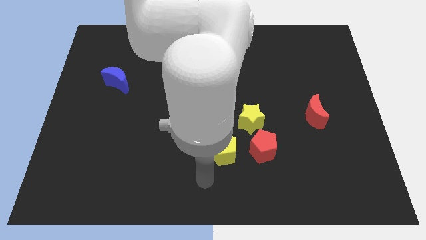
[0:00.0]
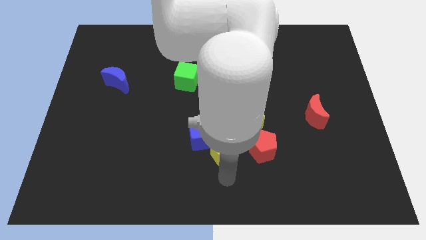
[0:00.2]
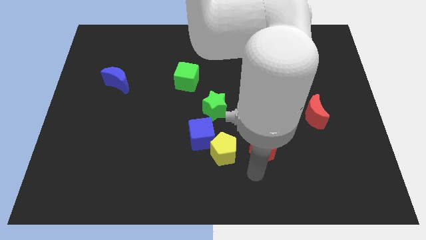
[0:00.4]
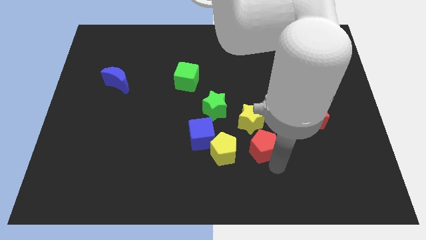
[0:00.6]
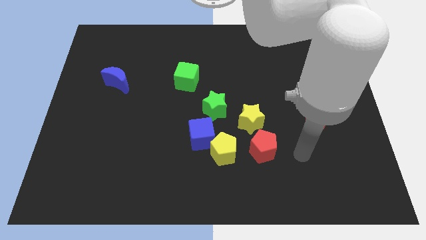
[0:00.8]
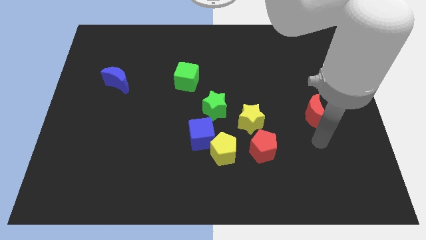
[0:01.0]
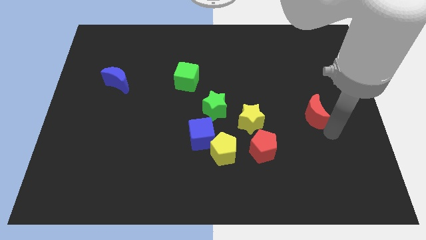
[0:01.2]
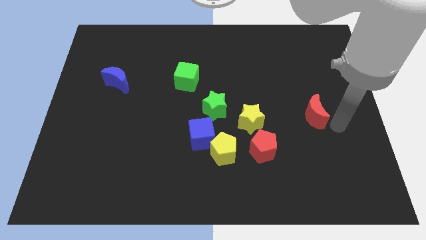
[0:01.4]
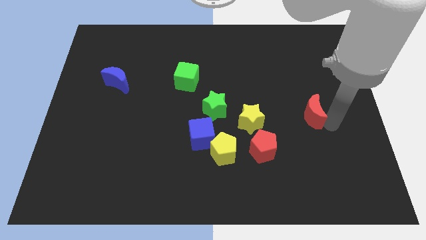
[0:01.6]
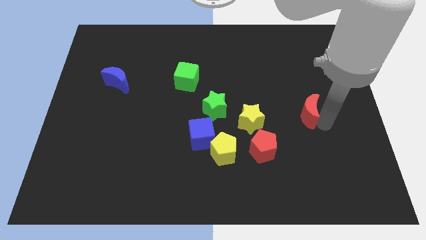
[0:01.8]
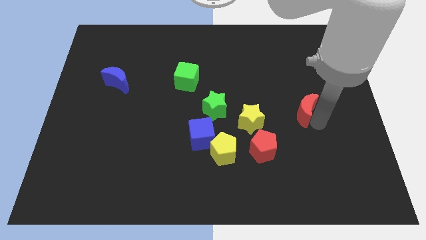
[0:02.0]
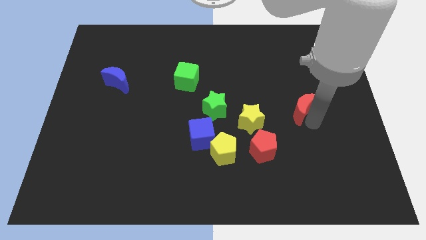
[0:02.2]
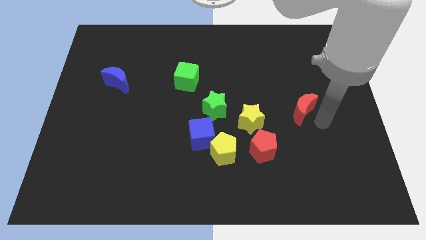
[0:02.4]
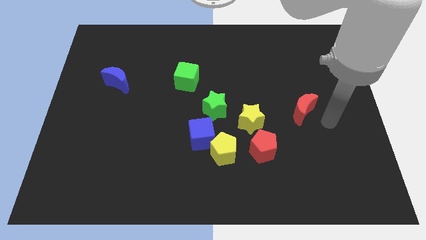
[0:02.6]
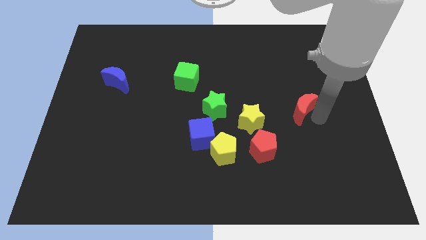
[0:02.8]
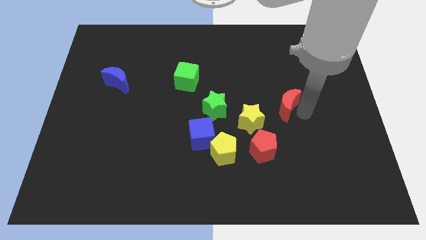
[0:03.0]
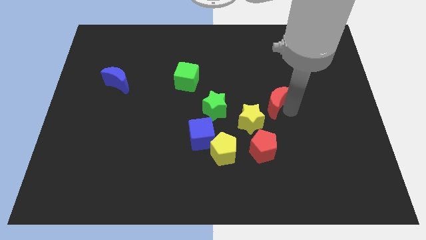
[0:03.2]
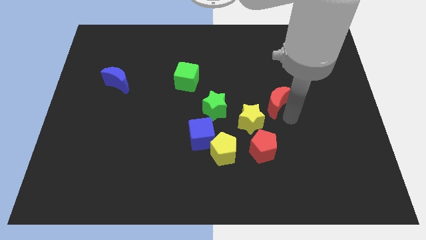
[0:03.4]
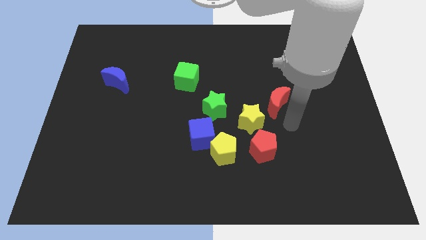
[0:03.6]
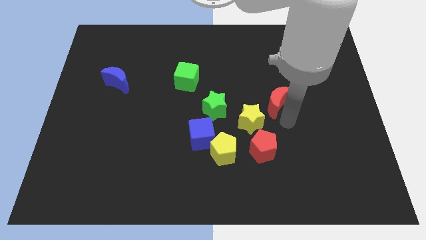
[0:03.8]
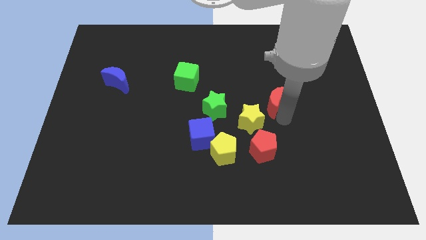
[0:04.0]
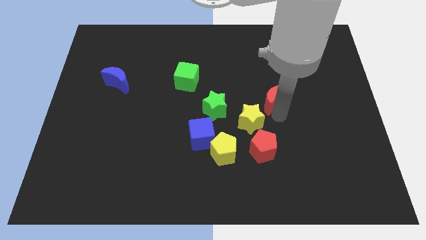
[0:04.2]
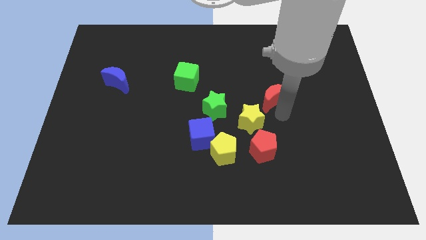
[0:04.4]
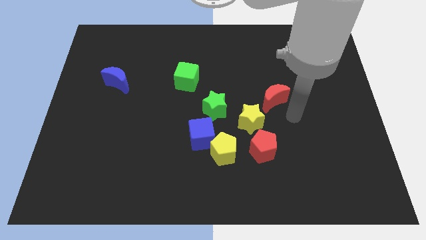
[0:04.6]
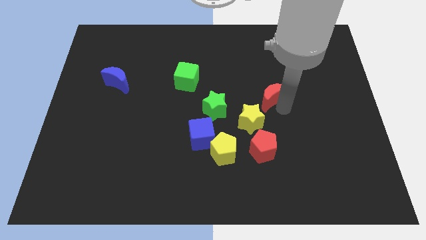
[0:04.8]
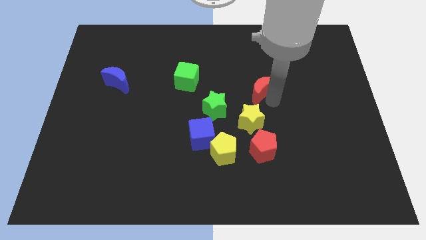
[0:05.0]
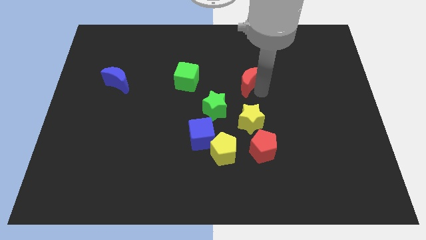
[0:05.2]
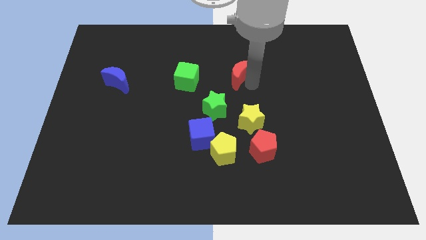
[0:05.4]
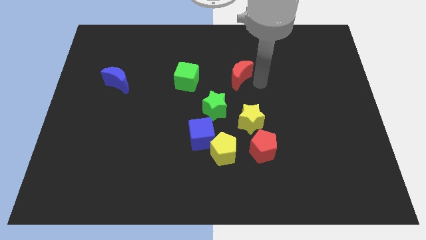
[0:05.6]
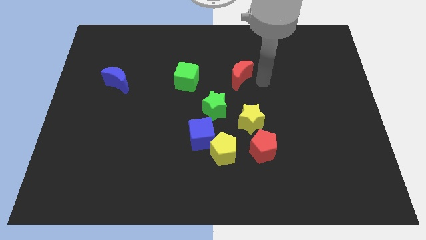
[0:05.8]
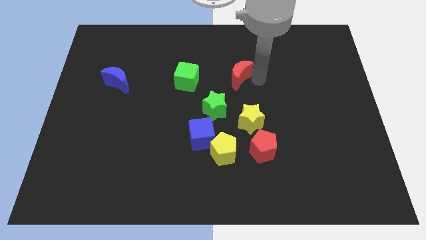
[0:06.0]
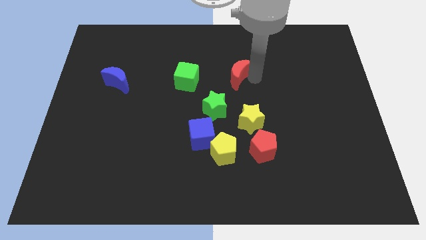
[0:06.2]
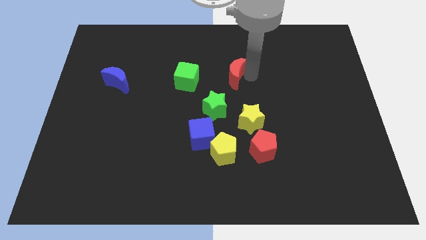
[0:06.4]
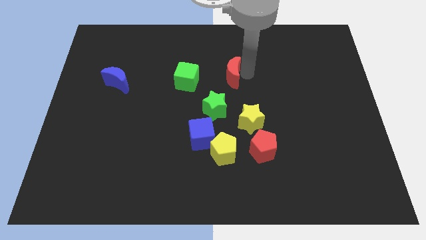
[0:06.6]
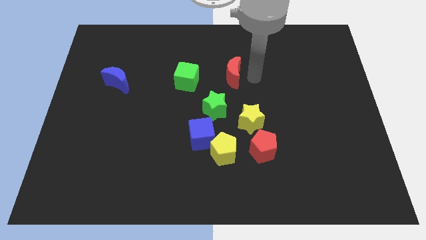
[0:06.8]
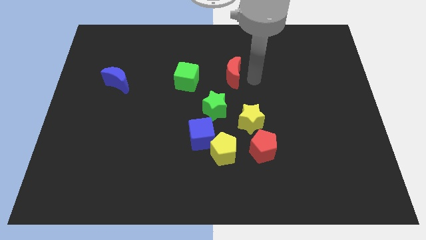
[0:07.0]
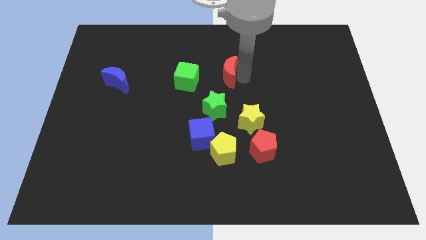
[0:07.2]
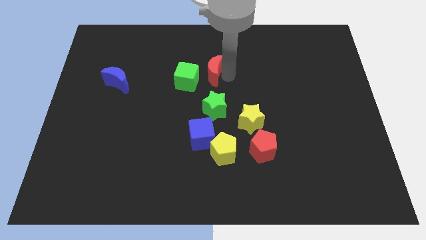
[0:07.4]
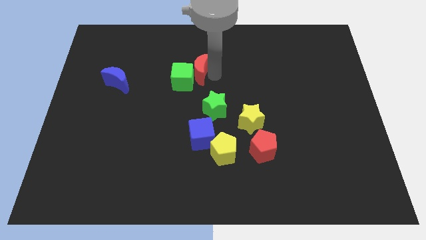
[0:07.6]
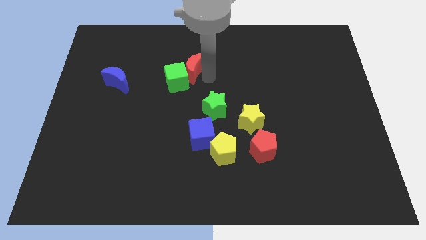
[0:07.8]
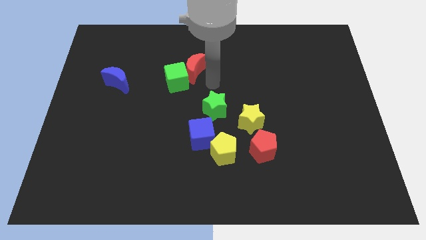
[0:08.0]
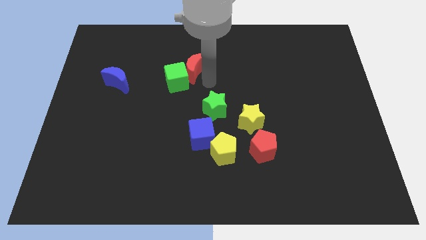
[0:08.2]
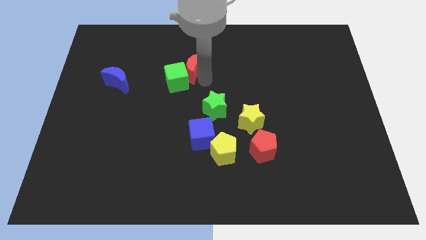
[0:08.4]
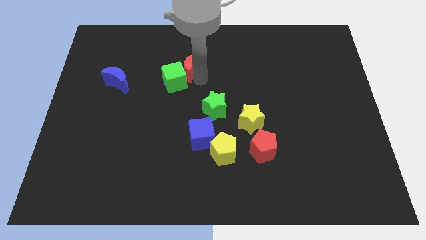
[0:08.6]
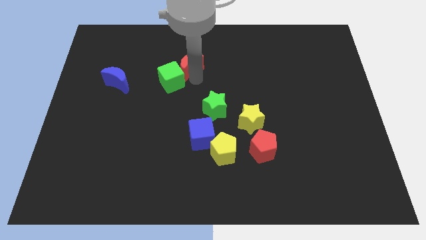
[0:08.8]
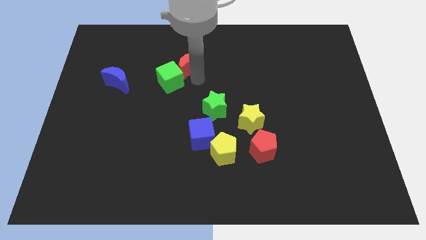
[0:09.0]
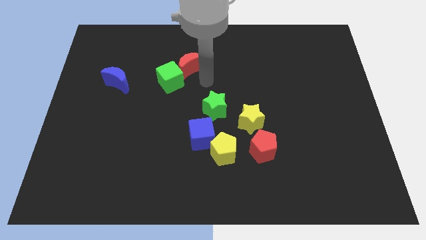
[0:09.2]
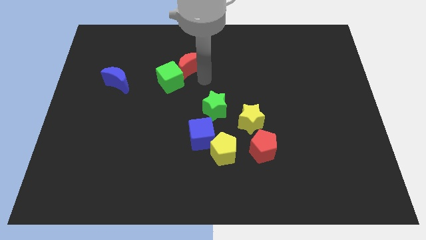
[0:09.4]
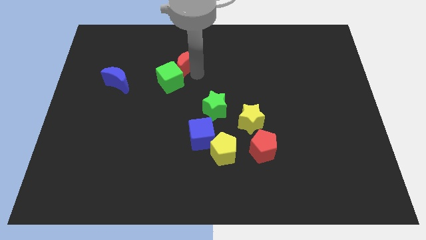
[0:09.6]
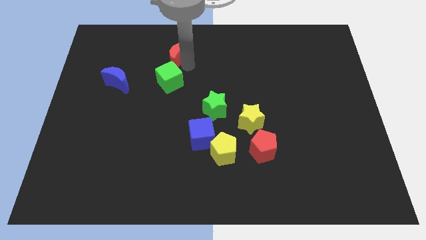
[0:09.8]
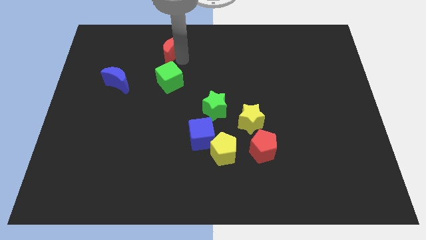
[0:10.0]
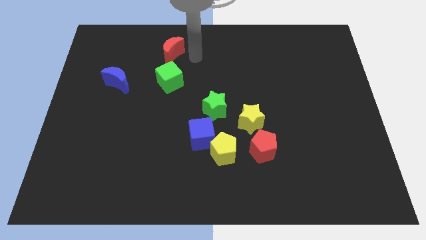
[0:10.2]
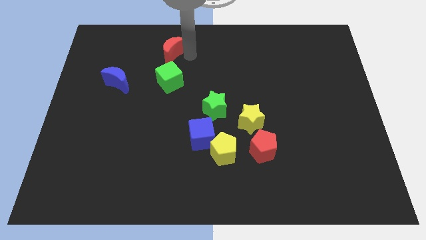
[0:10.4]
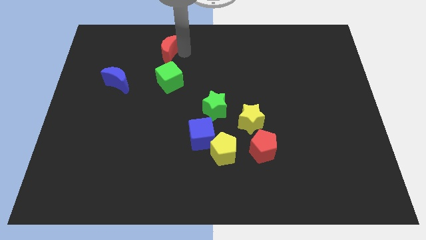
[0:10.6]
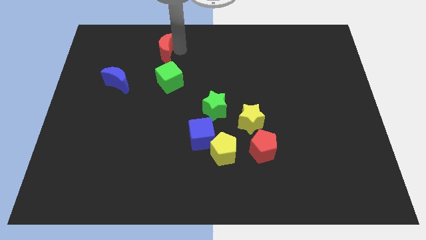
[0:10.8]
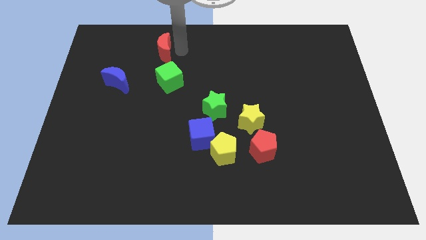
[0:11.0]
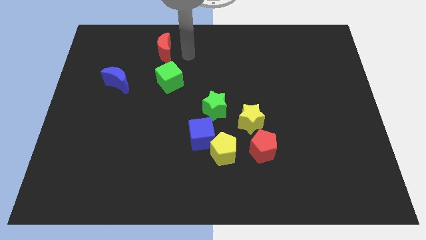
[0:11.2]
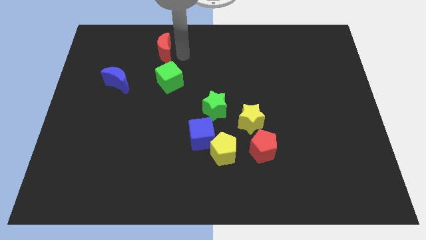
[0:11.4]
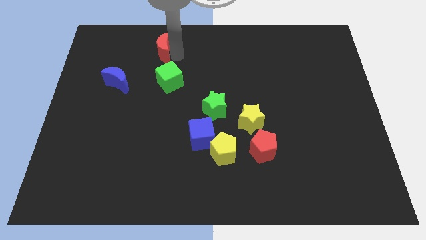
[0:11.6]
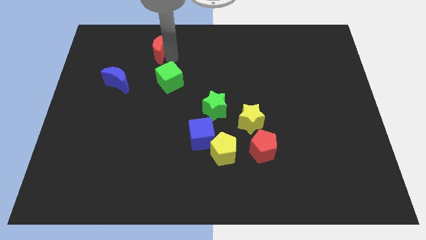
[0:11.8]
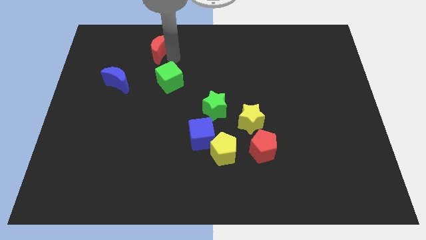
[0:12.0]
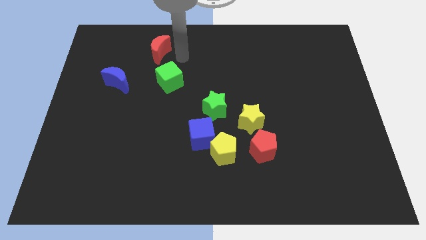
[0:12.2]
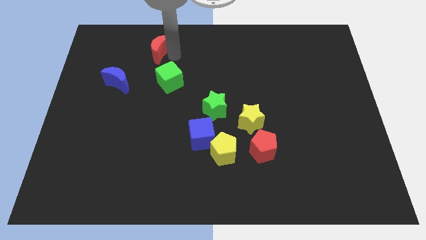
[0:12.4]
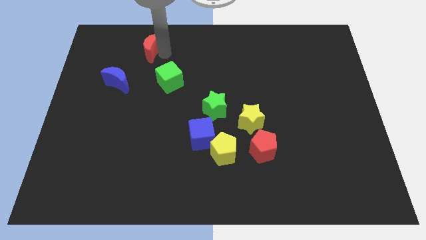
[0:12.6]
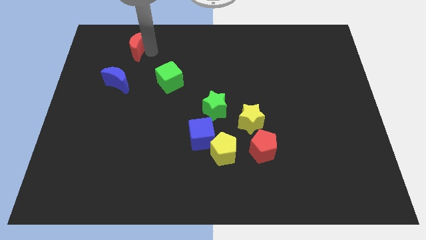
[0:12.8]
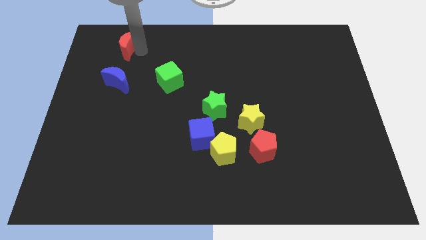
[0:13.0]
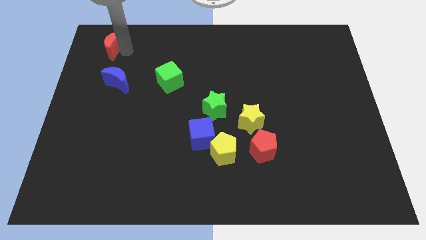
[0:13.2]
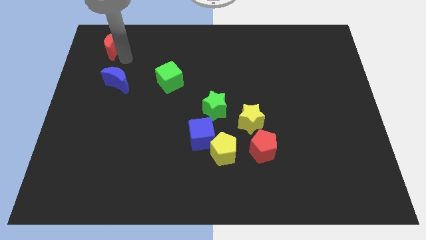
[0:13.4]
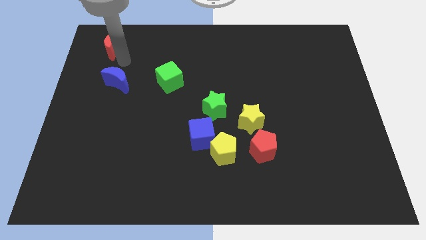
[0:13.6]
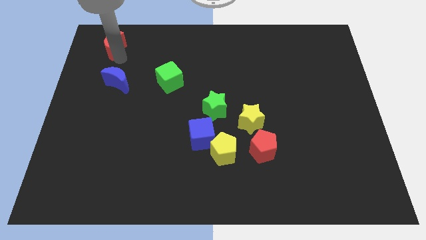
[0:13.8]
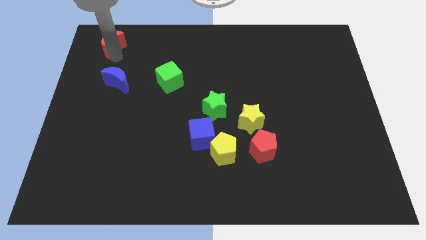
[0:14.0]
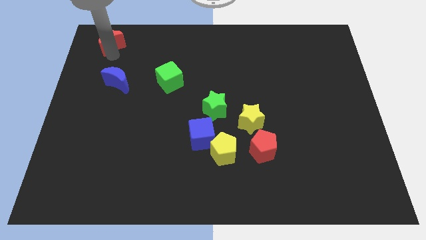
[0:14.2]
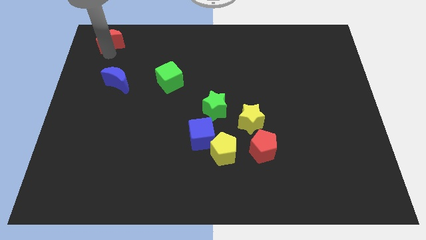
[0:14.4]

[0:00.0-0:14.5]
move the red moon to the top left corner

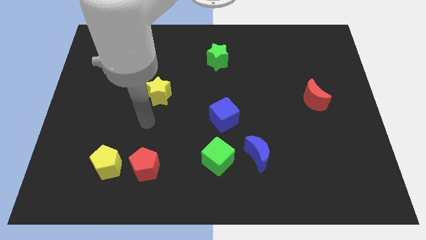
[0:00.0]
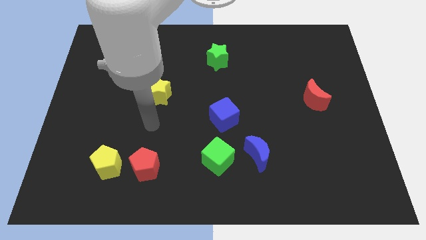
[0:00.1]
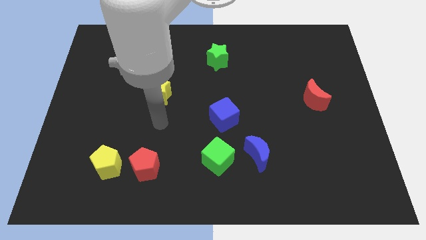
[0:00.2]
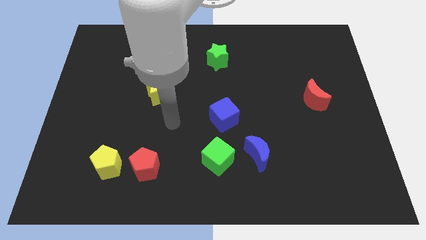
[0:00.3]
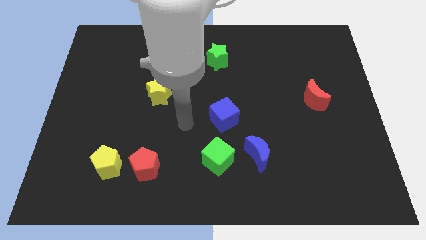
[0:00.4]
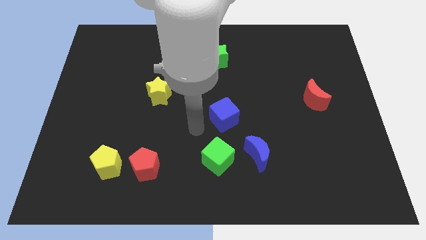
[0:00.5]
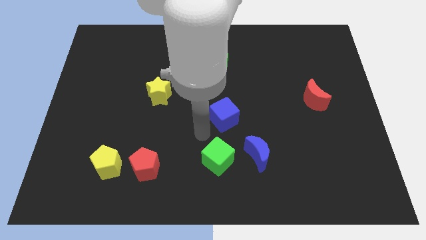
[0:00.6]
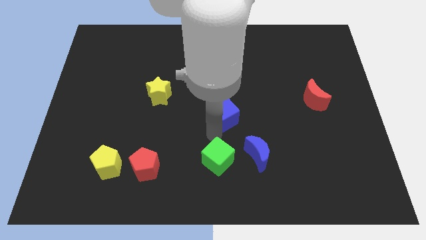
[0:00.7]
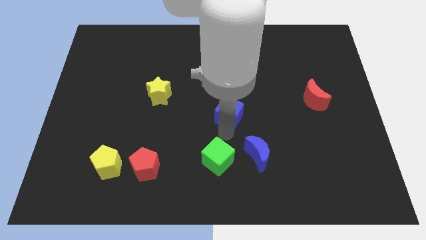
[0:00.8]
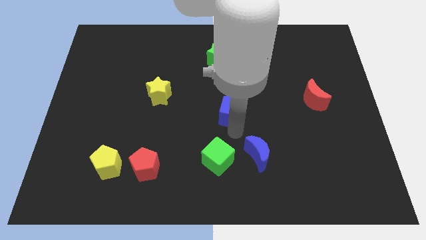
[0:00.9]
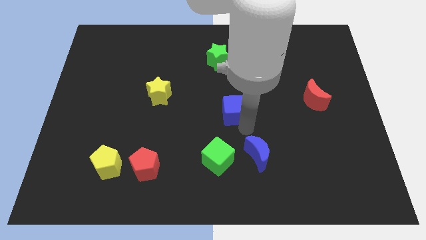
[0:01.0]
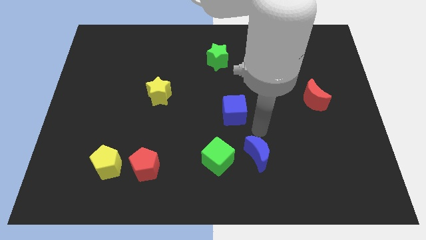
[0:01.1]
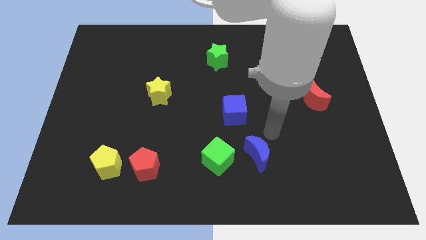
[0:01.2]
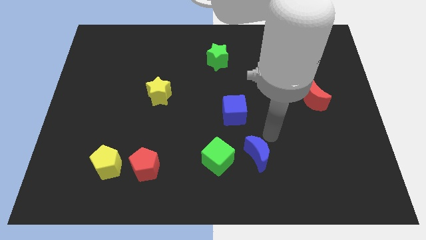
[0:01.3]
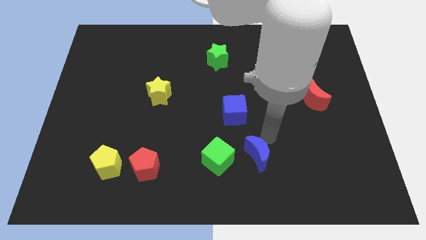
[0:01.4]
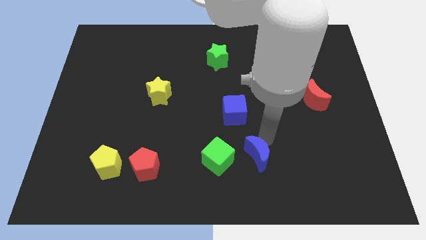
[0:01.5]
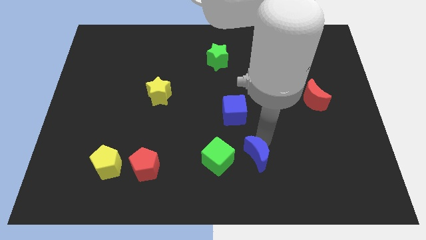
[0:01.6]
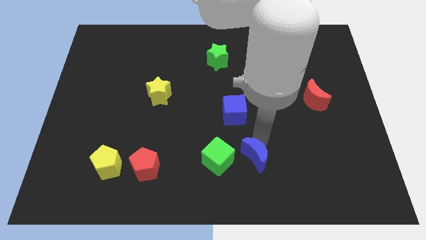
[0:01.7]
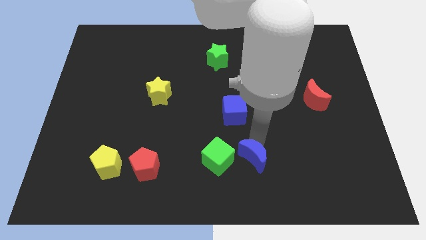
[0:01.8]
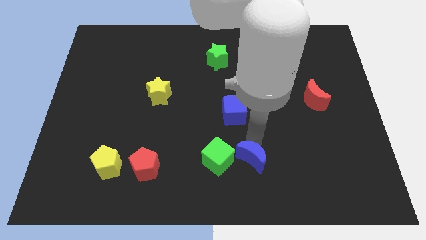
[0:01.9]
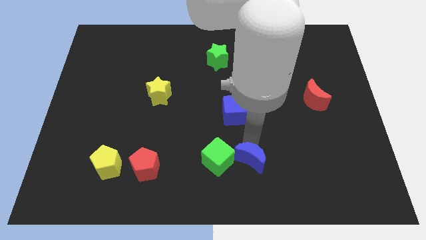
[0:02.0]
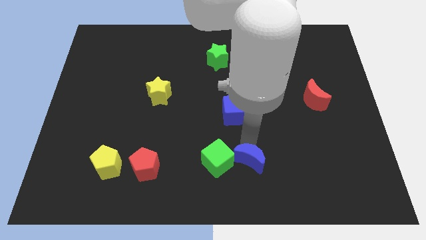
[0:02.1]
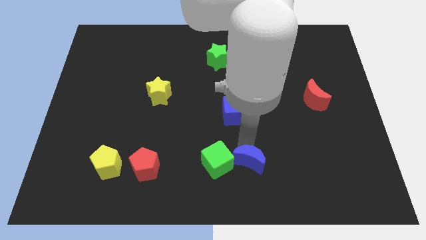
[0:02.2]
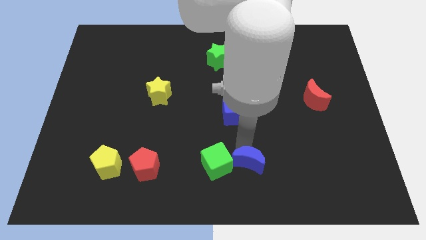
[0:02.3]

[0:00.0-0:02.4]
put the blue moon to the bottom
